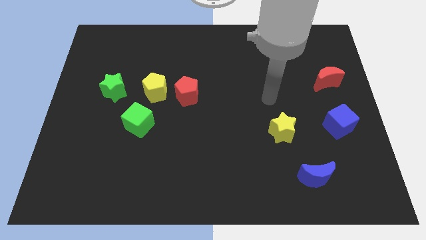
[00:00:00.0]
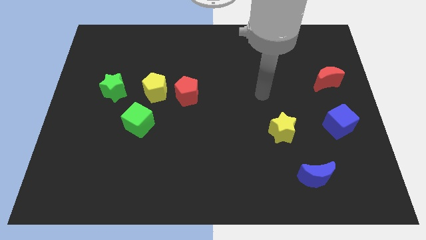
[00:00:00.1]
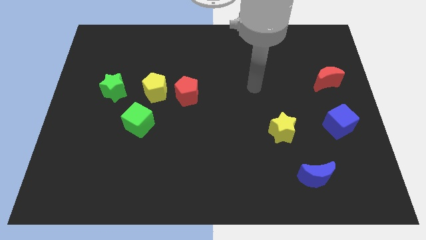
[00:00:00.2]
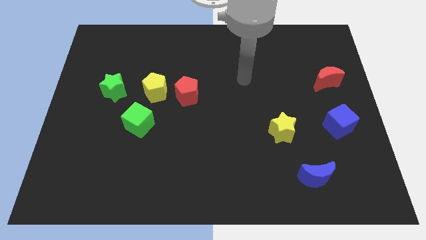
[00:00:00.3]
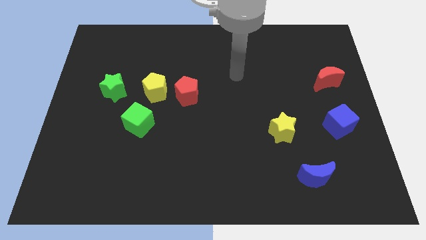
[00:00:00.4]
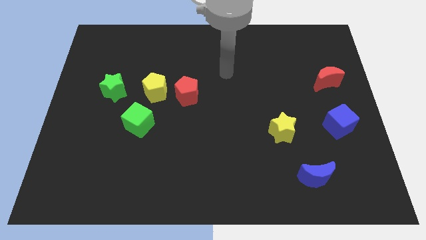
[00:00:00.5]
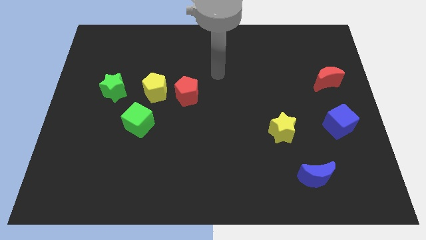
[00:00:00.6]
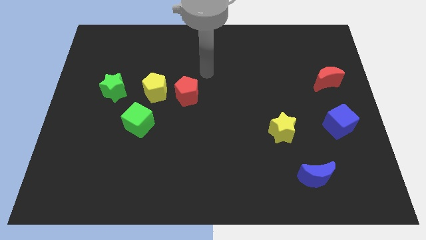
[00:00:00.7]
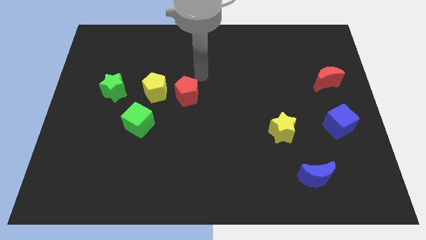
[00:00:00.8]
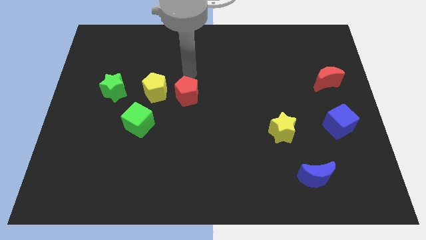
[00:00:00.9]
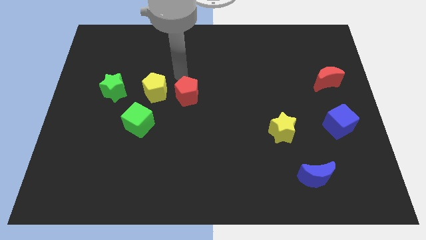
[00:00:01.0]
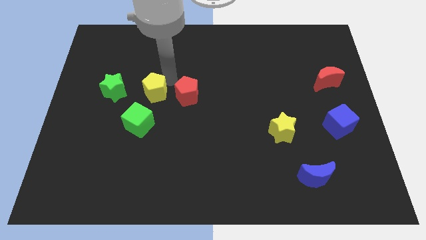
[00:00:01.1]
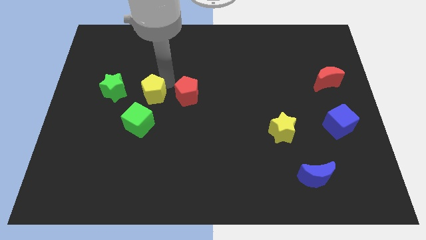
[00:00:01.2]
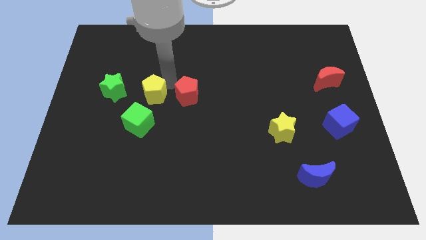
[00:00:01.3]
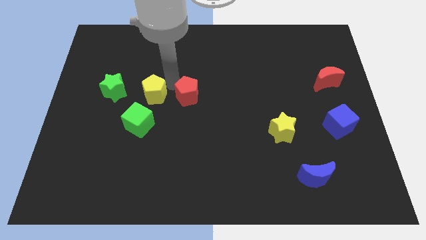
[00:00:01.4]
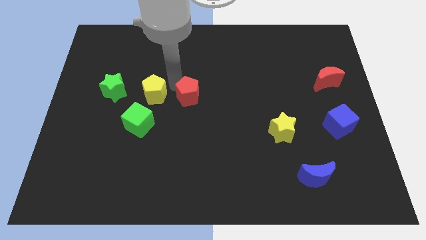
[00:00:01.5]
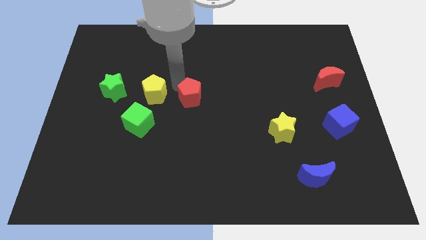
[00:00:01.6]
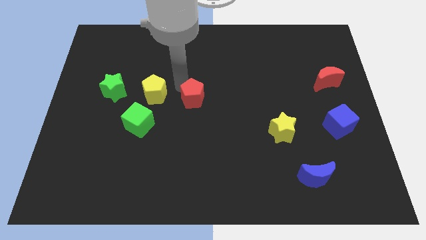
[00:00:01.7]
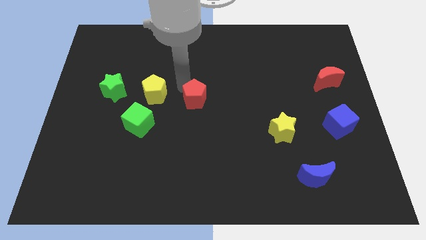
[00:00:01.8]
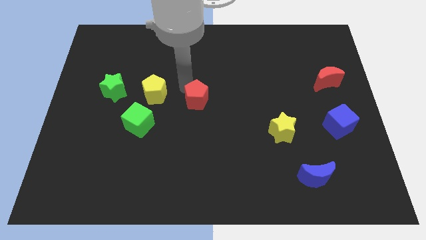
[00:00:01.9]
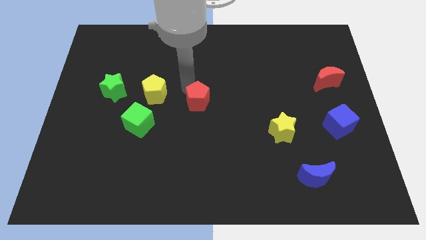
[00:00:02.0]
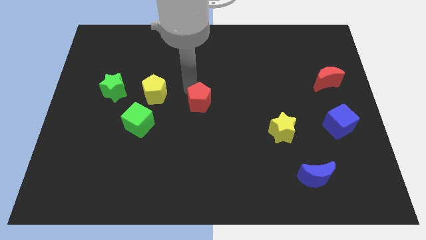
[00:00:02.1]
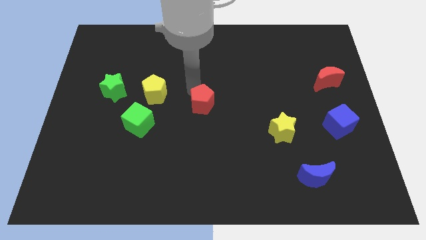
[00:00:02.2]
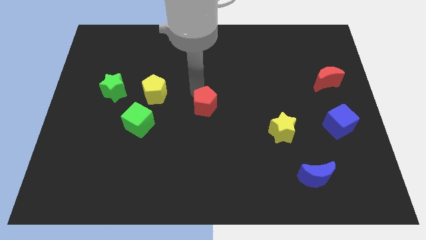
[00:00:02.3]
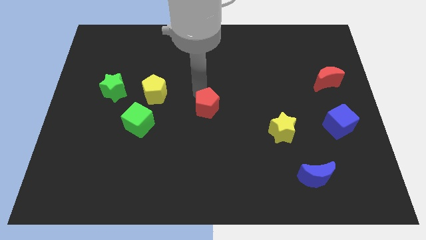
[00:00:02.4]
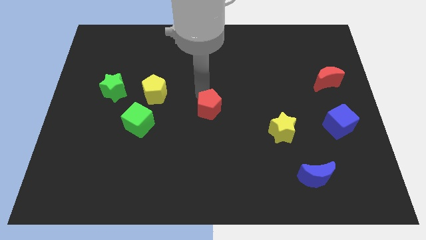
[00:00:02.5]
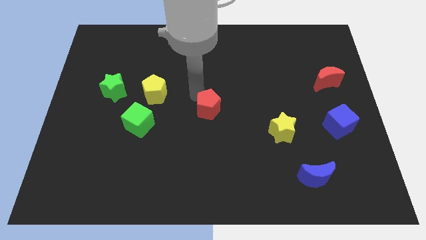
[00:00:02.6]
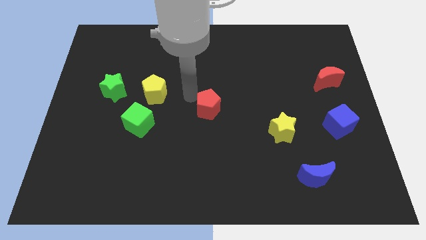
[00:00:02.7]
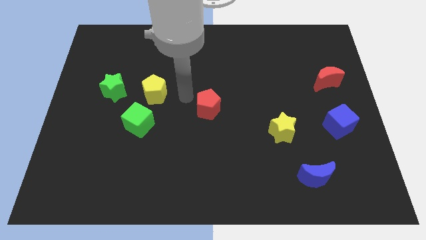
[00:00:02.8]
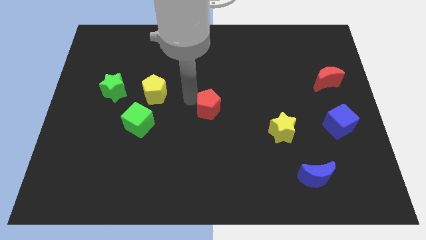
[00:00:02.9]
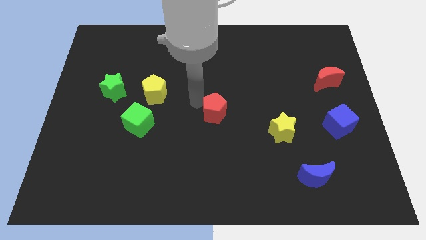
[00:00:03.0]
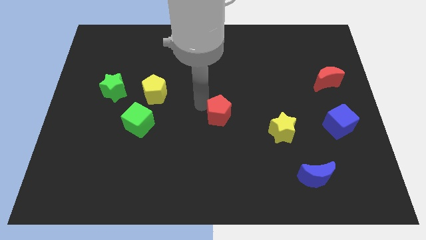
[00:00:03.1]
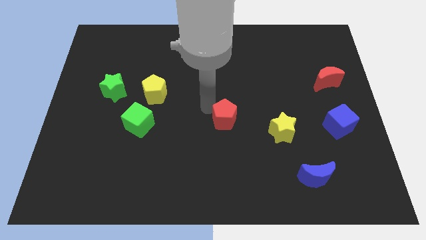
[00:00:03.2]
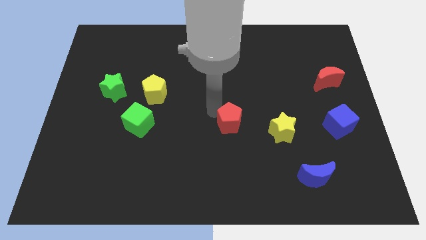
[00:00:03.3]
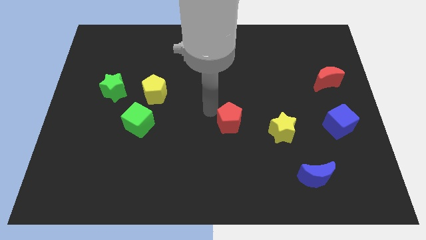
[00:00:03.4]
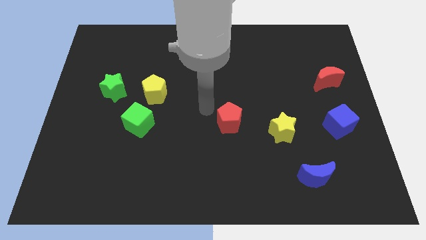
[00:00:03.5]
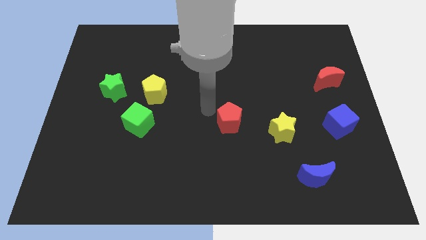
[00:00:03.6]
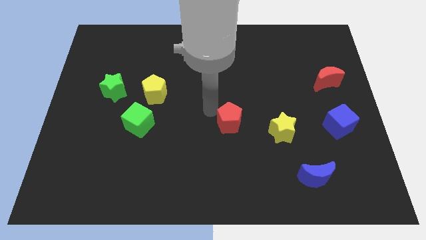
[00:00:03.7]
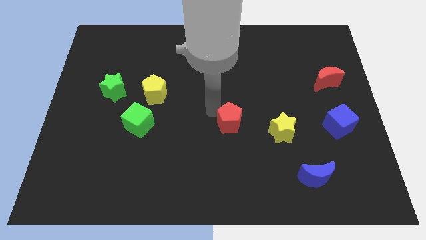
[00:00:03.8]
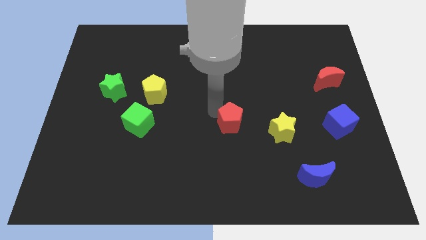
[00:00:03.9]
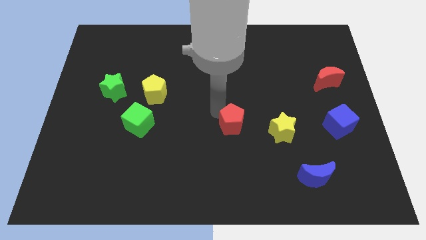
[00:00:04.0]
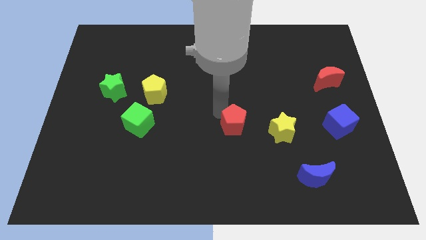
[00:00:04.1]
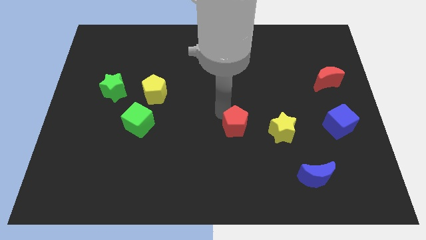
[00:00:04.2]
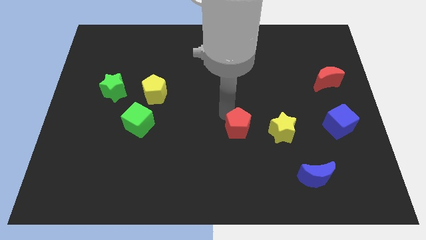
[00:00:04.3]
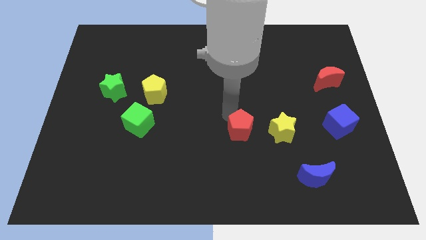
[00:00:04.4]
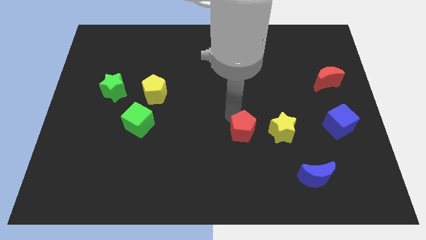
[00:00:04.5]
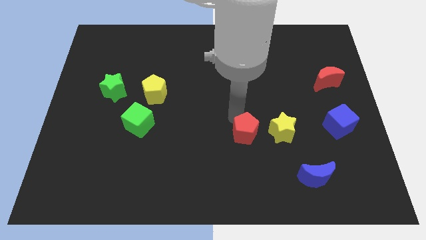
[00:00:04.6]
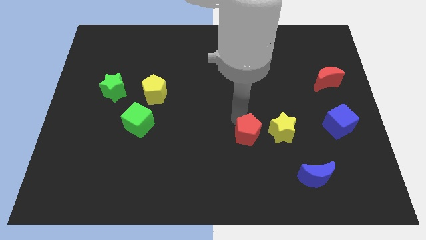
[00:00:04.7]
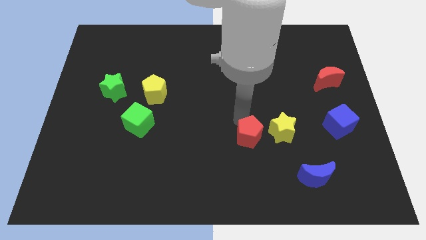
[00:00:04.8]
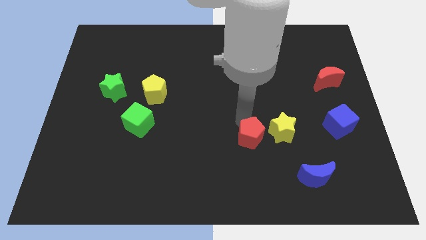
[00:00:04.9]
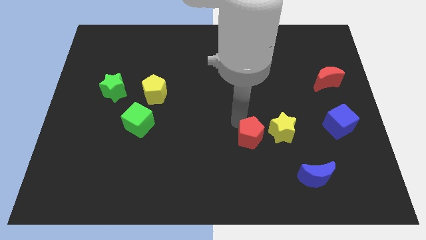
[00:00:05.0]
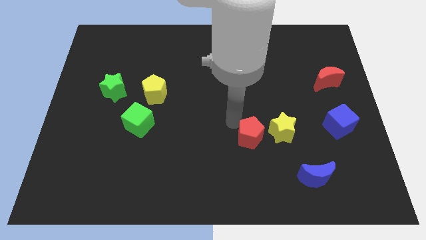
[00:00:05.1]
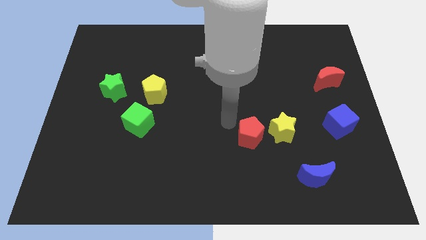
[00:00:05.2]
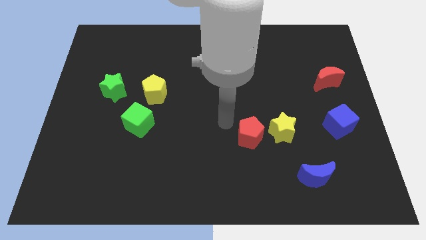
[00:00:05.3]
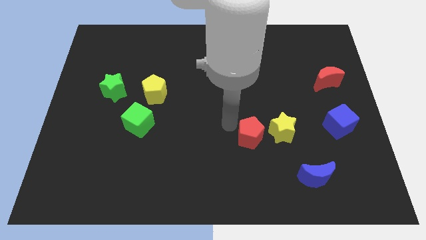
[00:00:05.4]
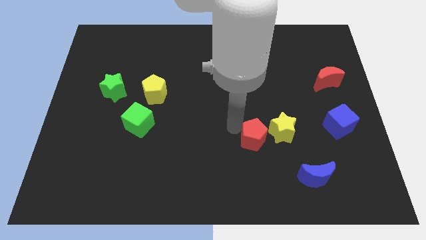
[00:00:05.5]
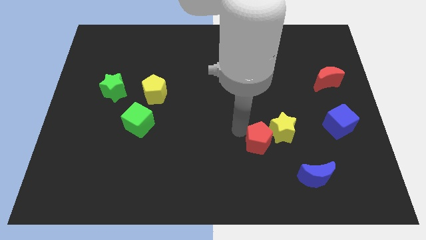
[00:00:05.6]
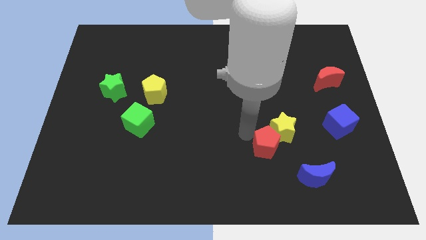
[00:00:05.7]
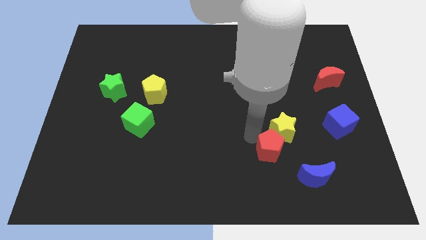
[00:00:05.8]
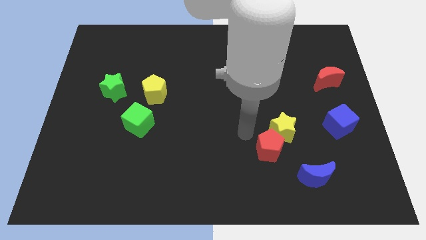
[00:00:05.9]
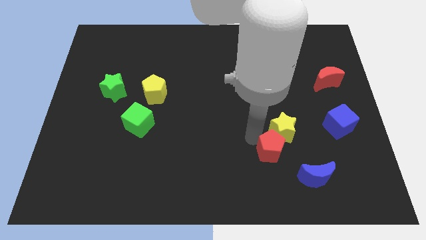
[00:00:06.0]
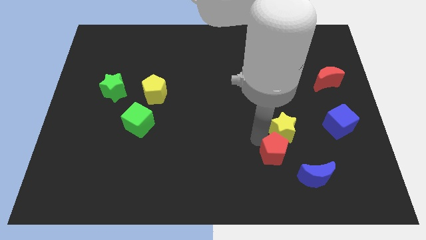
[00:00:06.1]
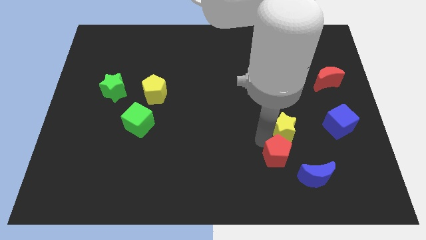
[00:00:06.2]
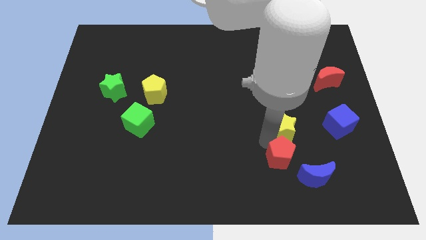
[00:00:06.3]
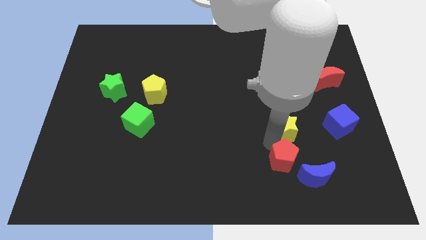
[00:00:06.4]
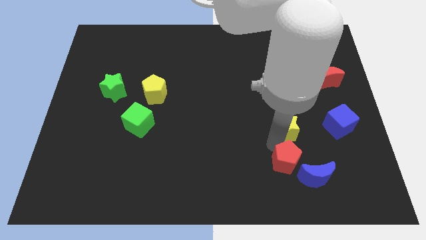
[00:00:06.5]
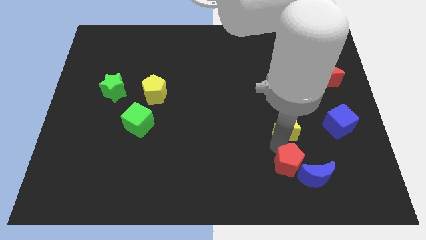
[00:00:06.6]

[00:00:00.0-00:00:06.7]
slide the red pentagon next to the blue moon

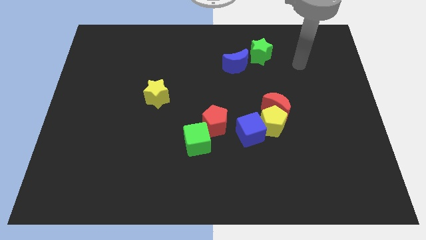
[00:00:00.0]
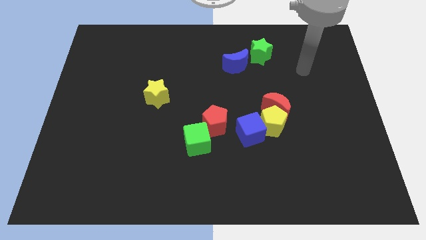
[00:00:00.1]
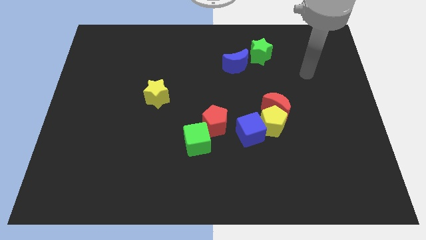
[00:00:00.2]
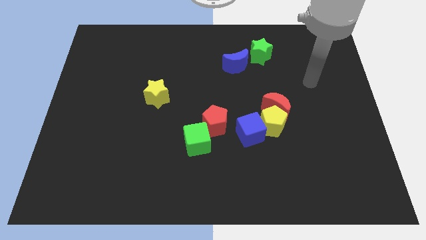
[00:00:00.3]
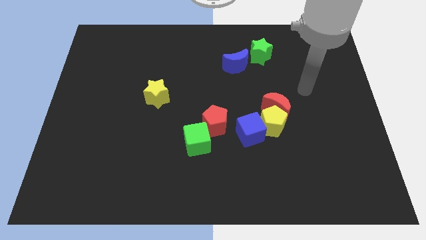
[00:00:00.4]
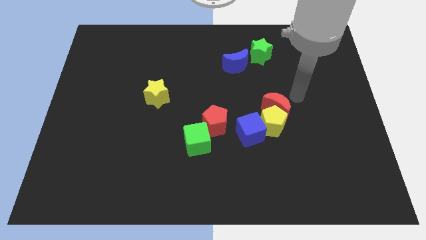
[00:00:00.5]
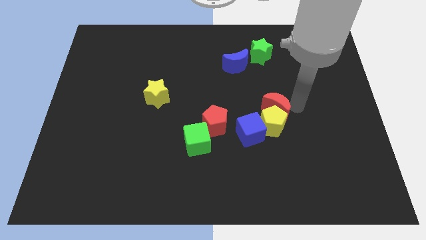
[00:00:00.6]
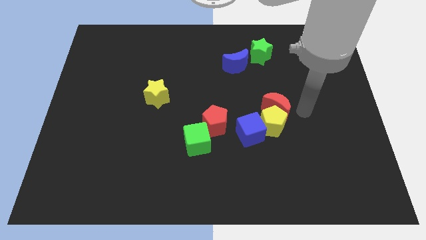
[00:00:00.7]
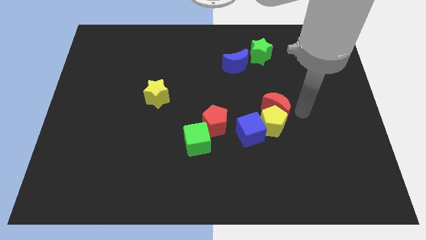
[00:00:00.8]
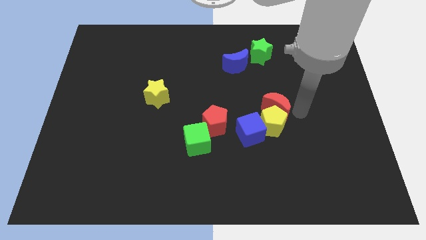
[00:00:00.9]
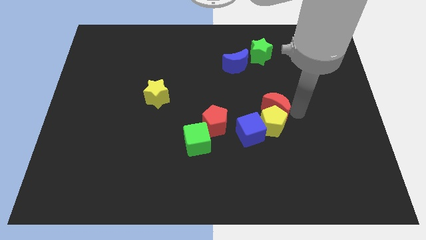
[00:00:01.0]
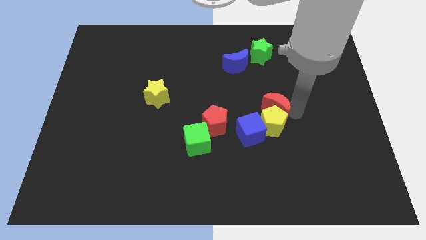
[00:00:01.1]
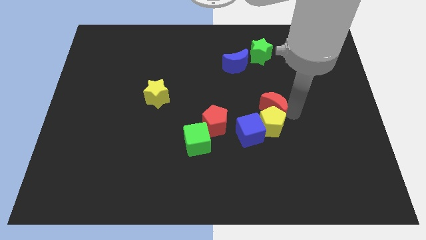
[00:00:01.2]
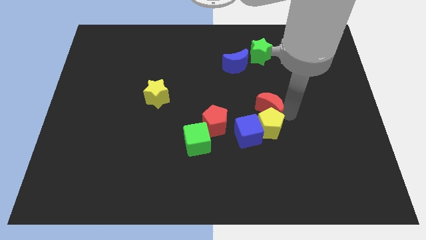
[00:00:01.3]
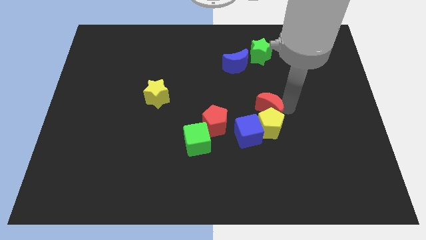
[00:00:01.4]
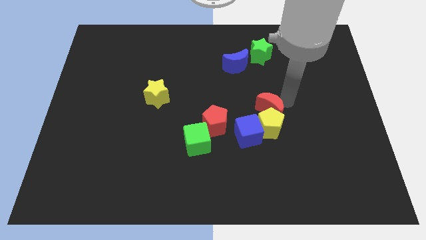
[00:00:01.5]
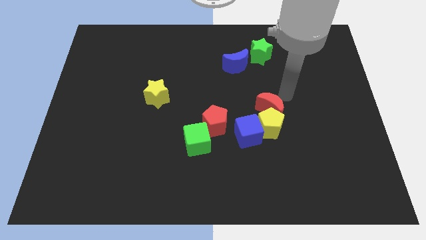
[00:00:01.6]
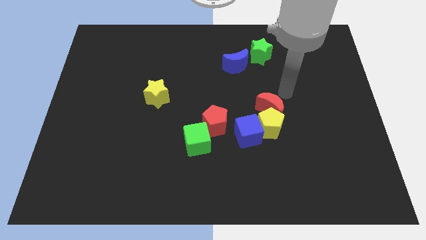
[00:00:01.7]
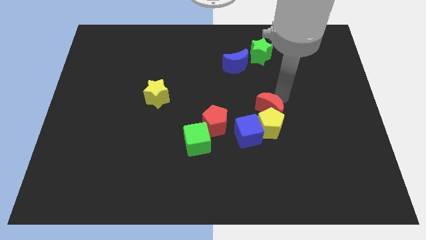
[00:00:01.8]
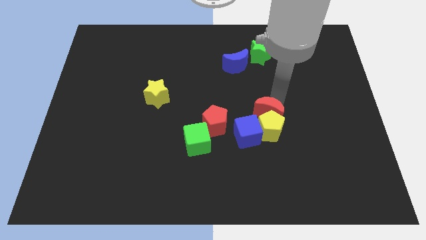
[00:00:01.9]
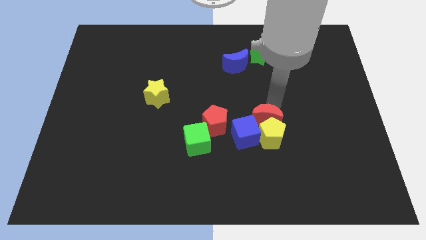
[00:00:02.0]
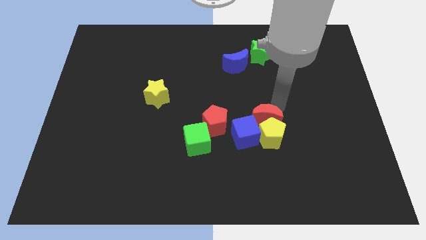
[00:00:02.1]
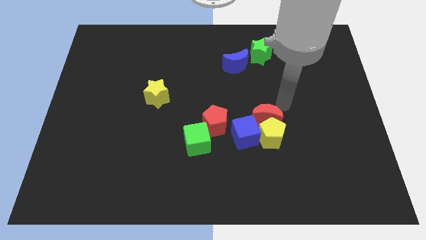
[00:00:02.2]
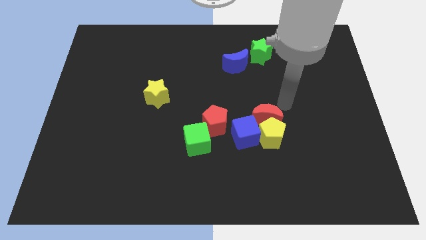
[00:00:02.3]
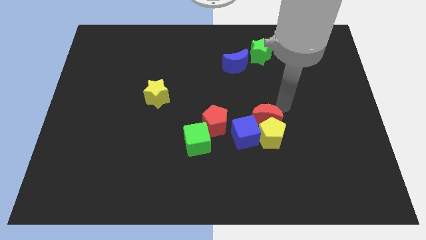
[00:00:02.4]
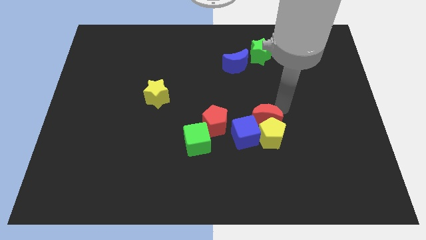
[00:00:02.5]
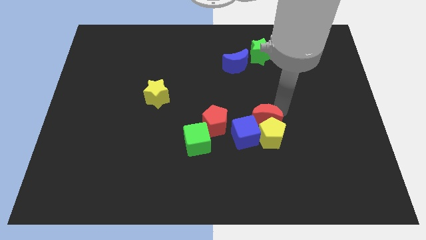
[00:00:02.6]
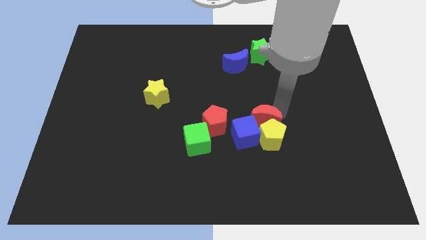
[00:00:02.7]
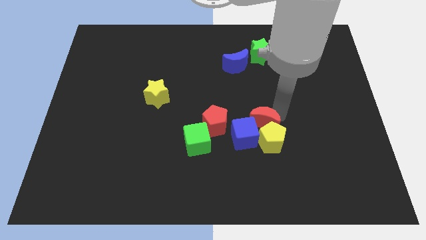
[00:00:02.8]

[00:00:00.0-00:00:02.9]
put the red moon next to the blue cube
